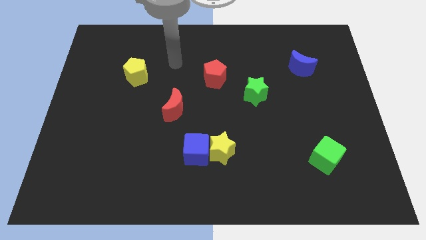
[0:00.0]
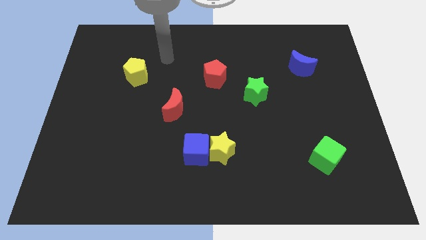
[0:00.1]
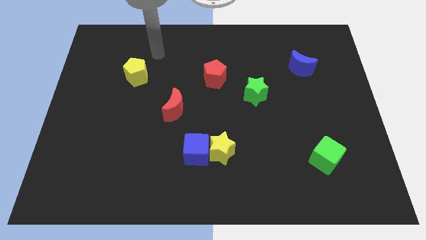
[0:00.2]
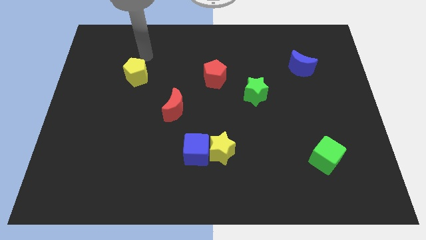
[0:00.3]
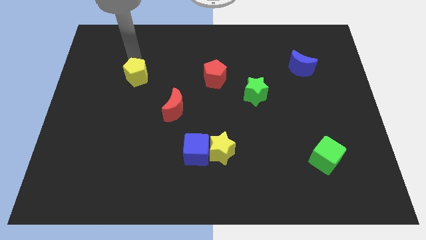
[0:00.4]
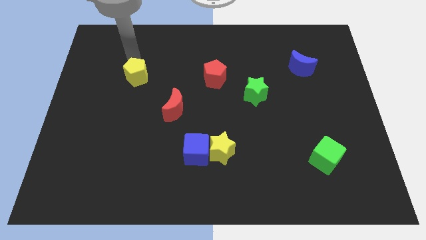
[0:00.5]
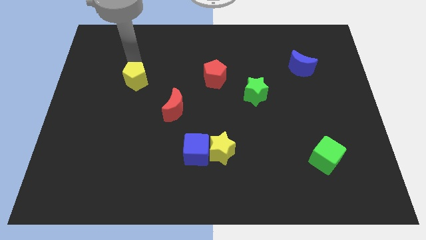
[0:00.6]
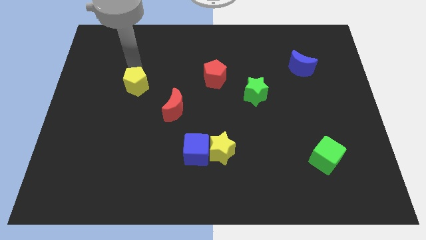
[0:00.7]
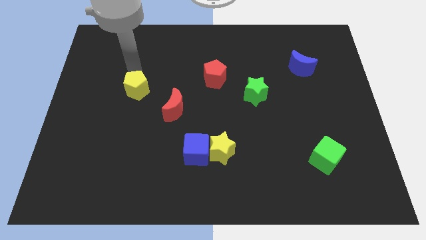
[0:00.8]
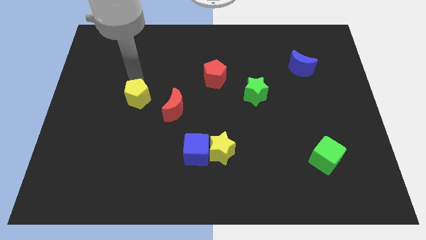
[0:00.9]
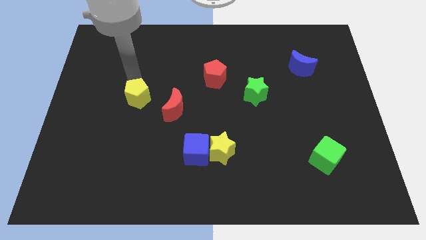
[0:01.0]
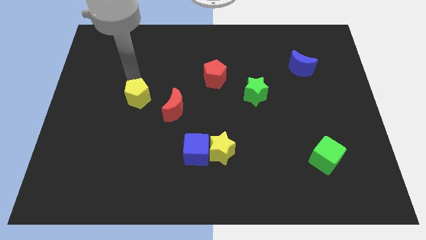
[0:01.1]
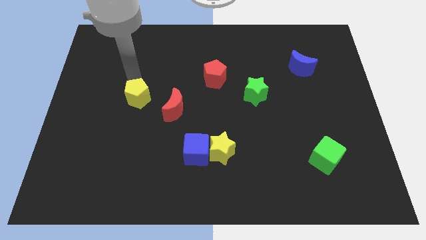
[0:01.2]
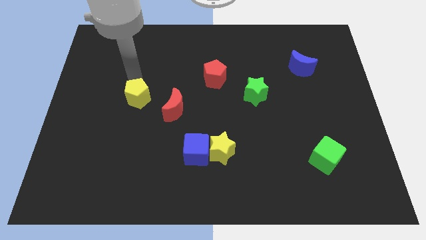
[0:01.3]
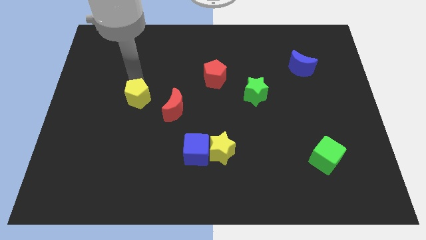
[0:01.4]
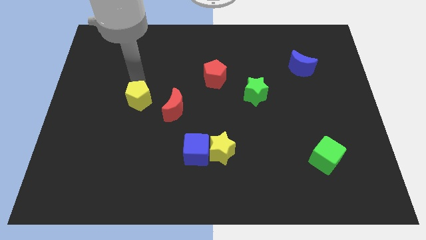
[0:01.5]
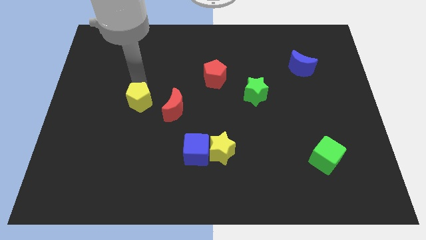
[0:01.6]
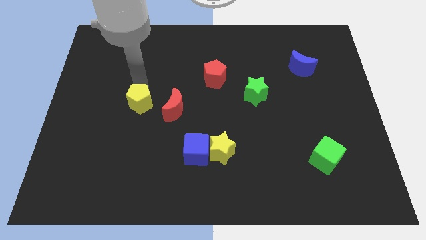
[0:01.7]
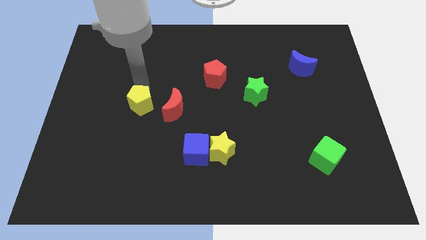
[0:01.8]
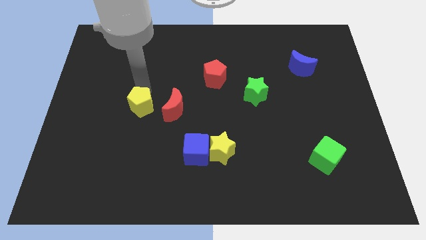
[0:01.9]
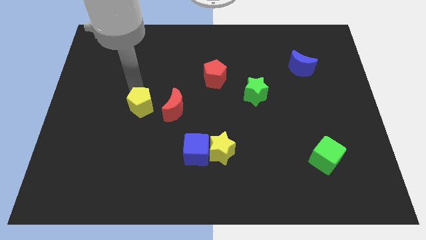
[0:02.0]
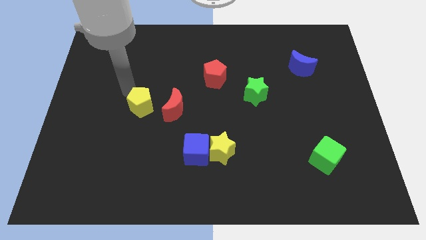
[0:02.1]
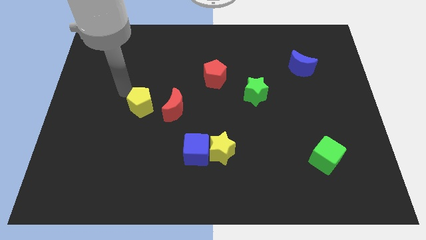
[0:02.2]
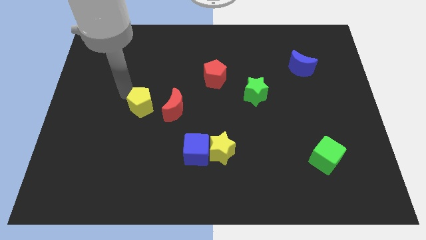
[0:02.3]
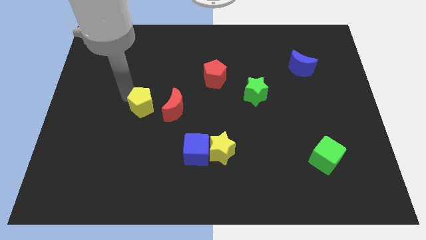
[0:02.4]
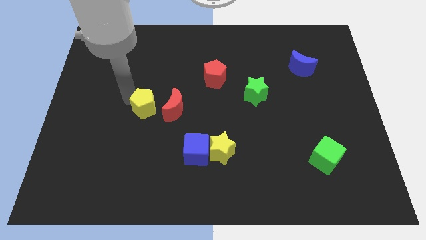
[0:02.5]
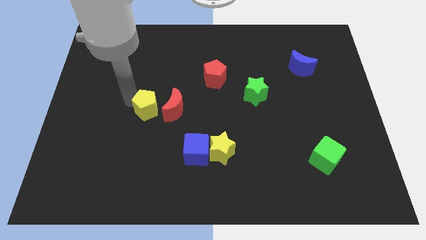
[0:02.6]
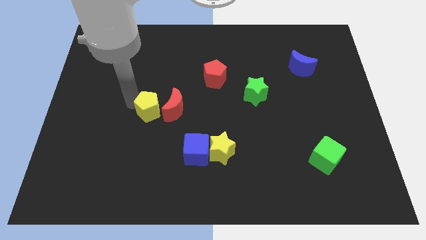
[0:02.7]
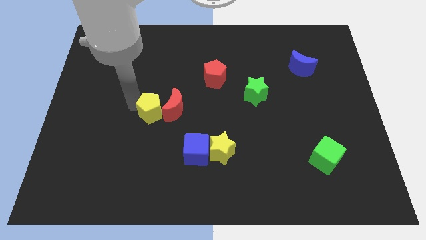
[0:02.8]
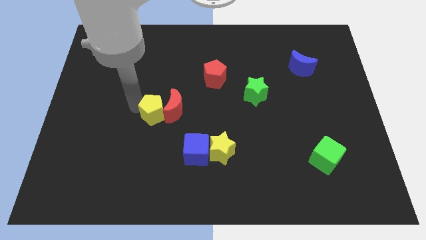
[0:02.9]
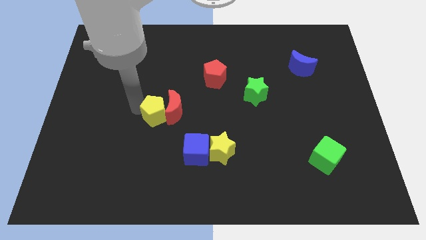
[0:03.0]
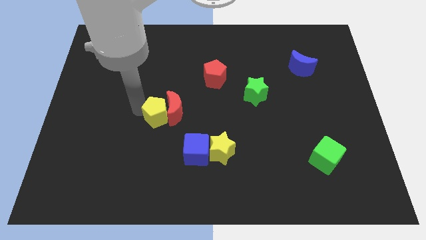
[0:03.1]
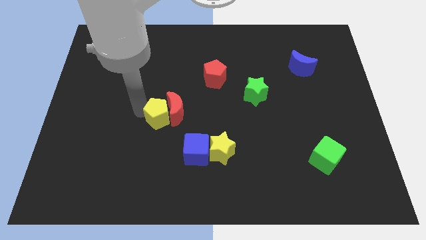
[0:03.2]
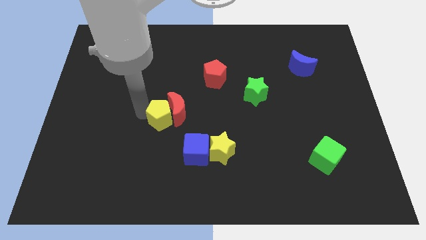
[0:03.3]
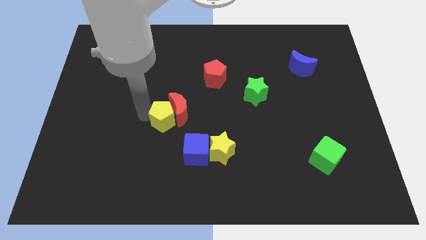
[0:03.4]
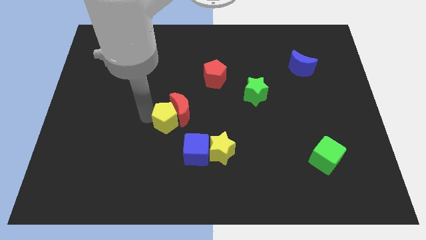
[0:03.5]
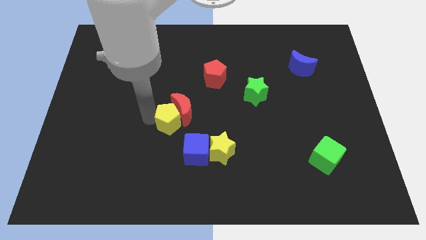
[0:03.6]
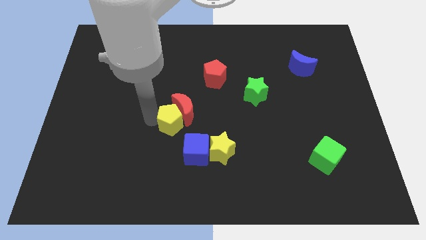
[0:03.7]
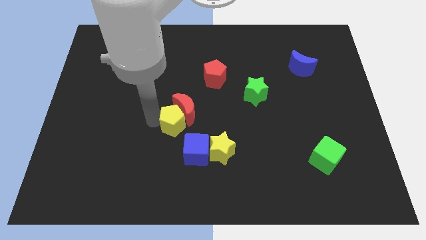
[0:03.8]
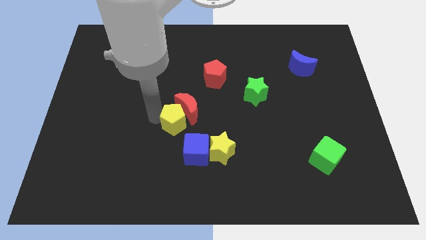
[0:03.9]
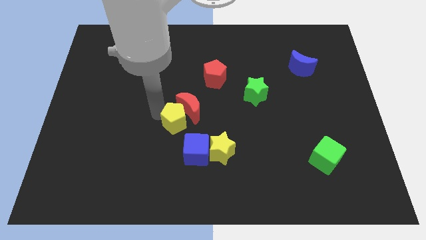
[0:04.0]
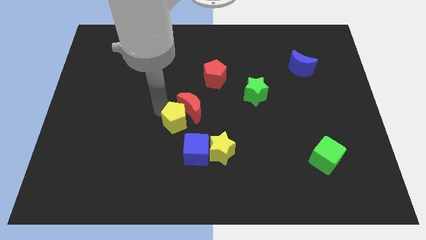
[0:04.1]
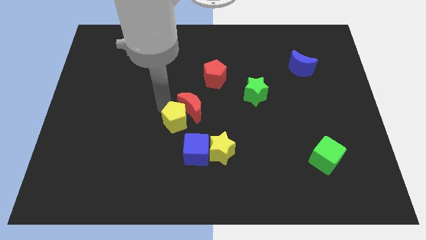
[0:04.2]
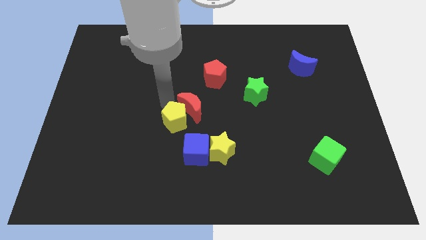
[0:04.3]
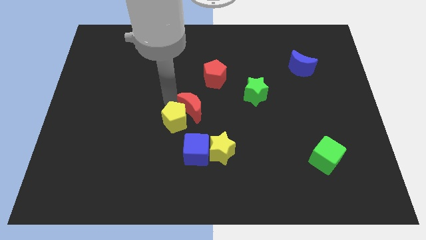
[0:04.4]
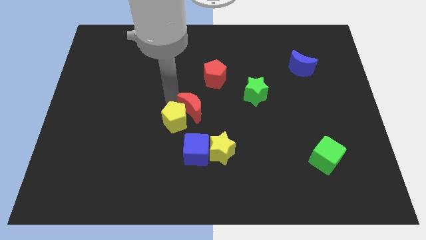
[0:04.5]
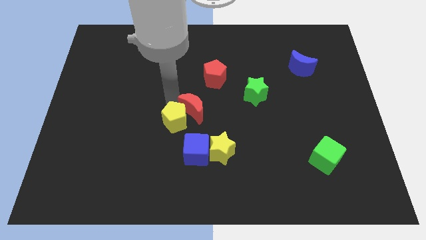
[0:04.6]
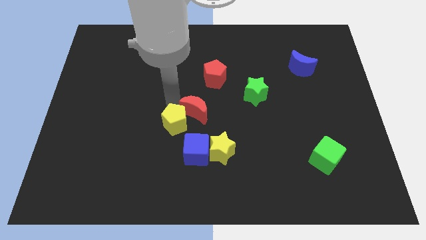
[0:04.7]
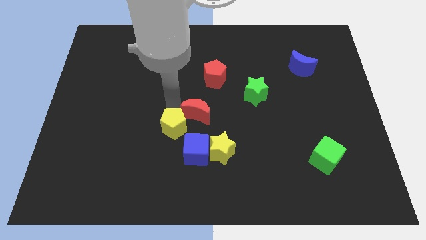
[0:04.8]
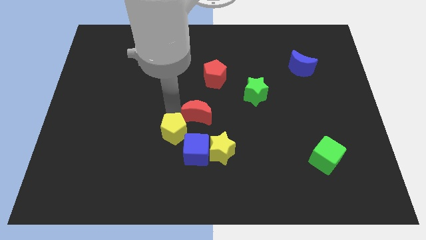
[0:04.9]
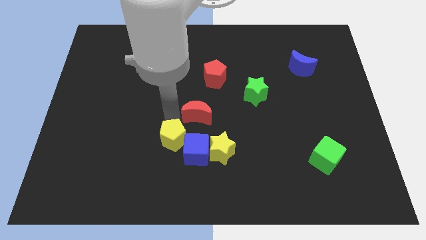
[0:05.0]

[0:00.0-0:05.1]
push the yellow pentagon next to the blue cube

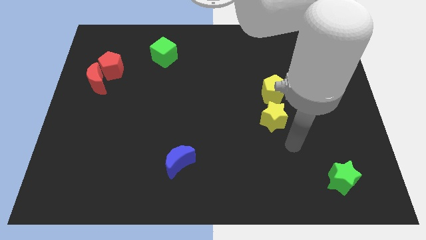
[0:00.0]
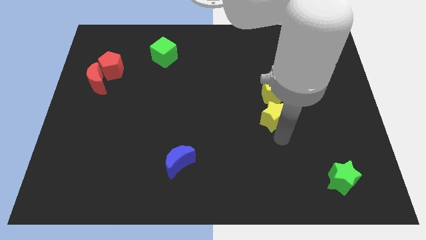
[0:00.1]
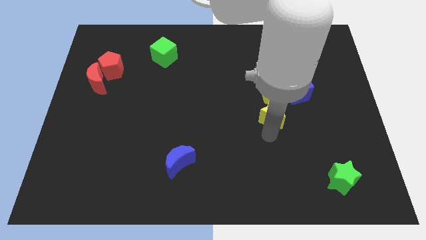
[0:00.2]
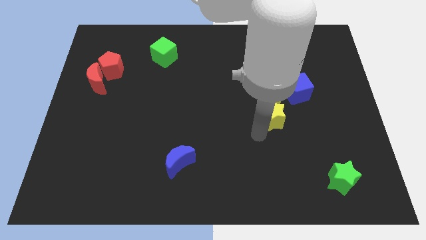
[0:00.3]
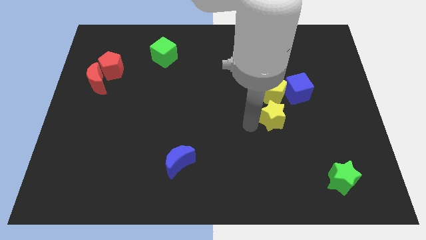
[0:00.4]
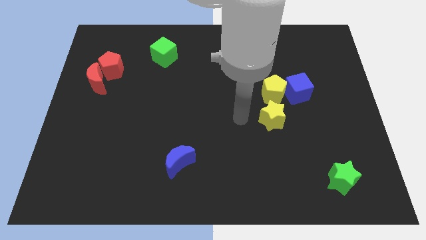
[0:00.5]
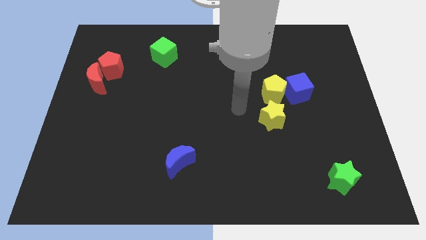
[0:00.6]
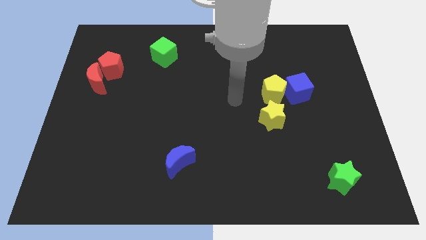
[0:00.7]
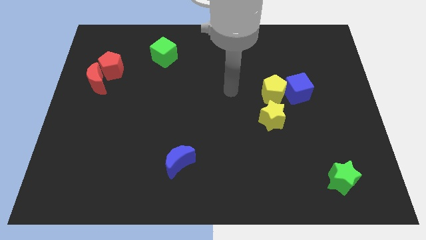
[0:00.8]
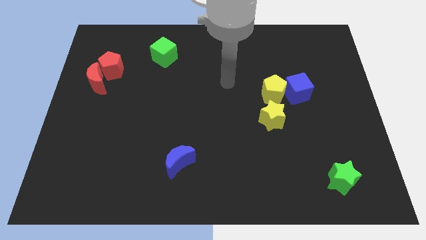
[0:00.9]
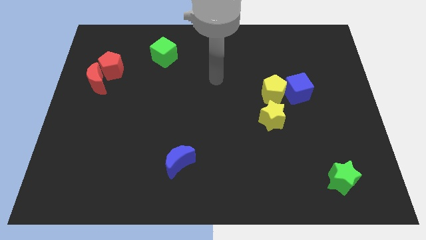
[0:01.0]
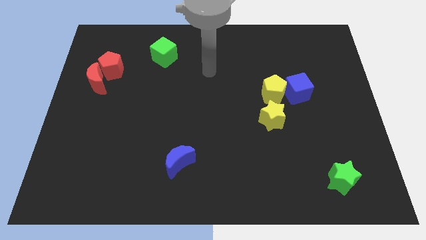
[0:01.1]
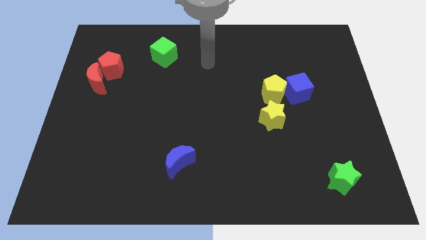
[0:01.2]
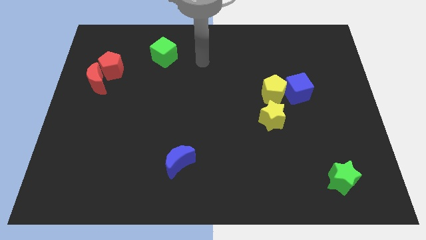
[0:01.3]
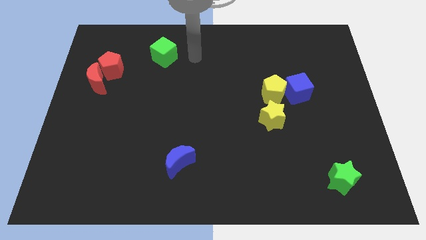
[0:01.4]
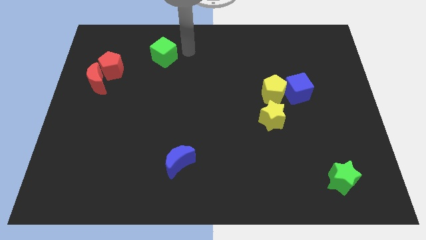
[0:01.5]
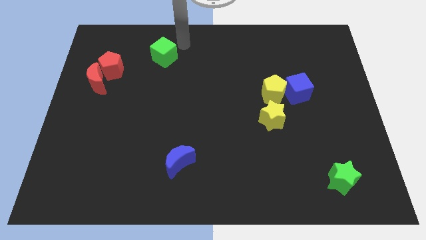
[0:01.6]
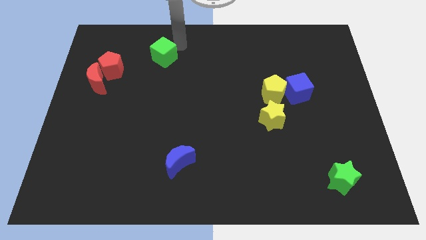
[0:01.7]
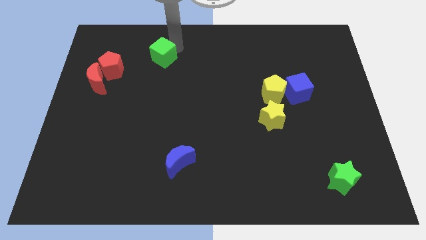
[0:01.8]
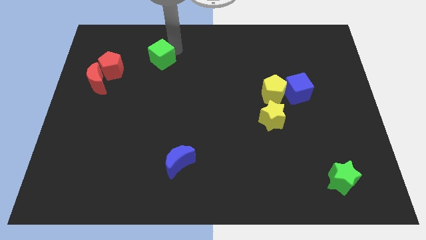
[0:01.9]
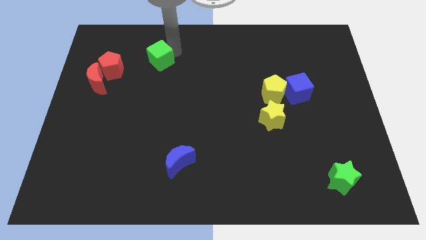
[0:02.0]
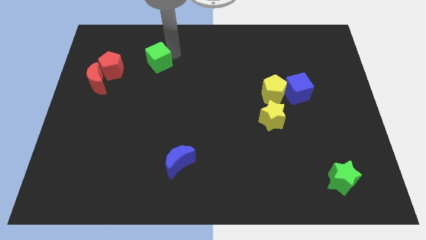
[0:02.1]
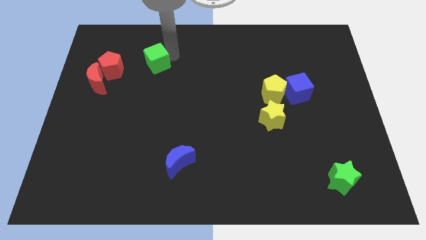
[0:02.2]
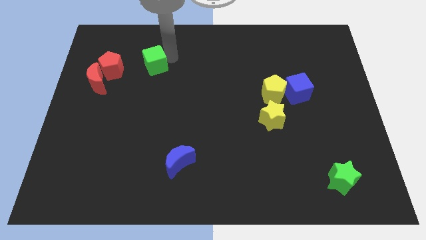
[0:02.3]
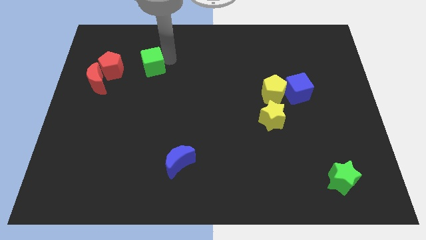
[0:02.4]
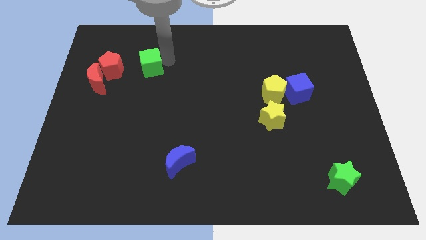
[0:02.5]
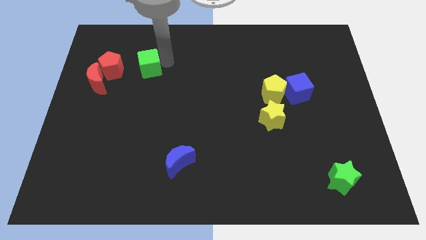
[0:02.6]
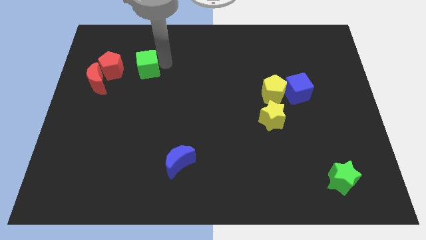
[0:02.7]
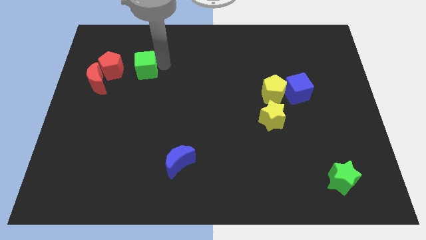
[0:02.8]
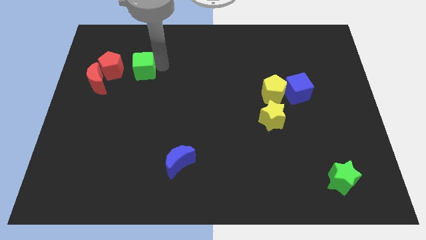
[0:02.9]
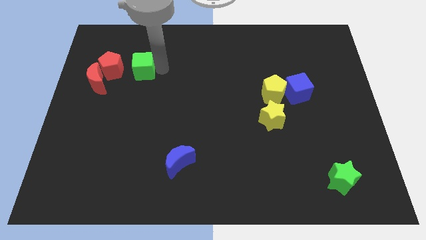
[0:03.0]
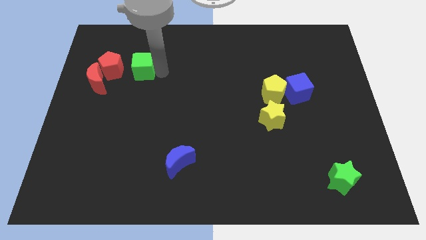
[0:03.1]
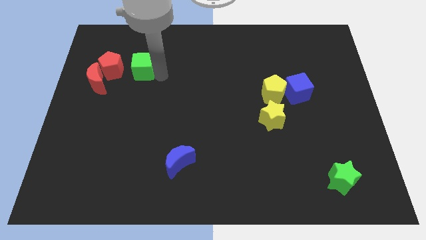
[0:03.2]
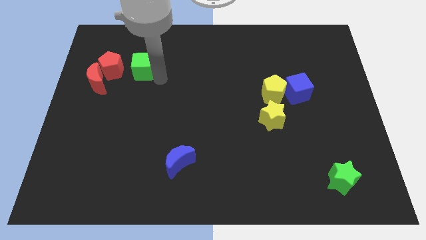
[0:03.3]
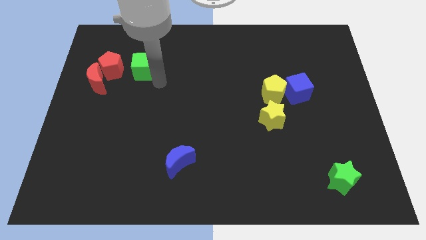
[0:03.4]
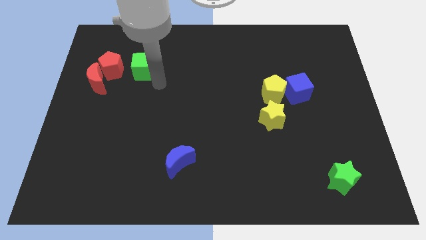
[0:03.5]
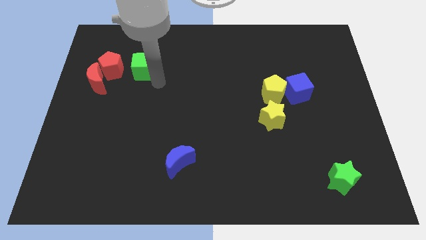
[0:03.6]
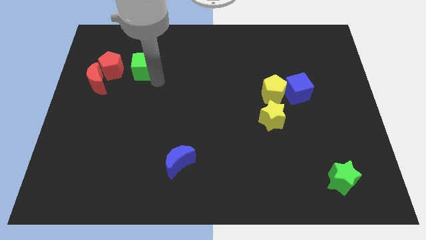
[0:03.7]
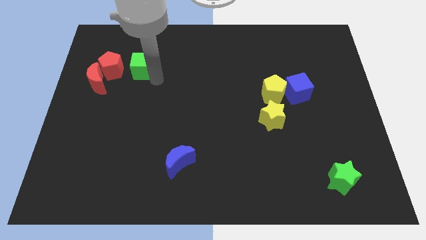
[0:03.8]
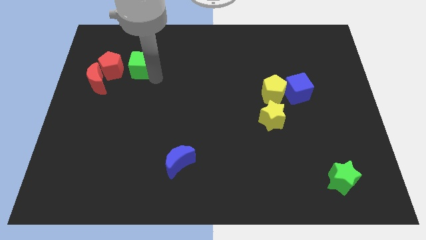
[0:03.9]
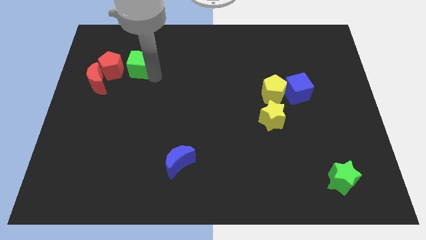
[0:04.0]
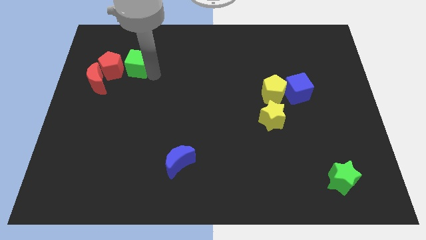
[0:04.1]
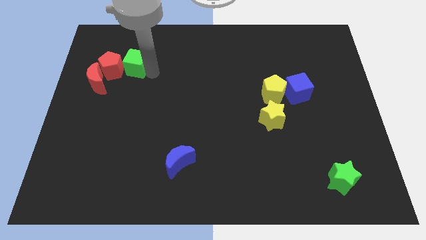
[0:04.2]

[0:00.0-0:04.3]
push the green cube close to the red pentagon
